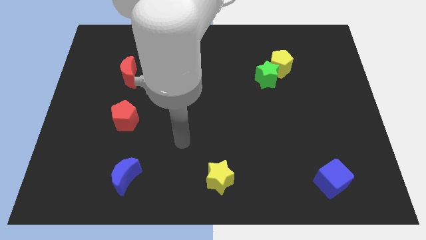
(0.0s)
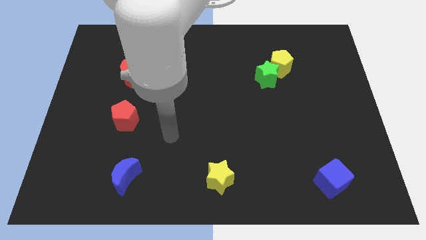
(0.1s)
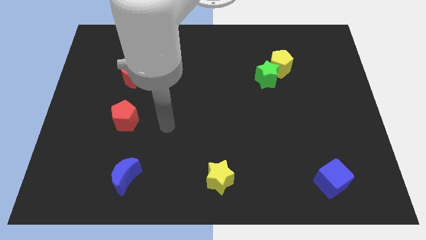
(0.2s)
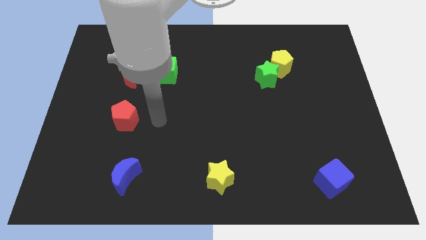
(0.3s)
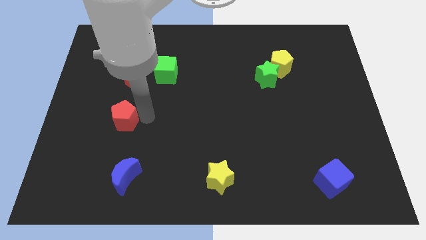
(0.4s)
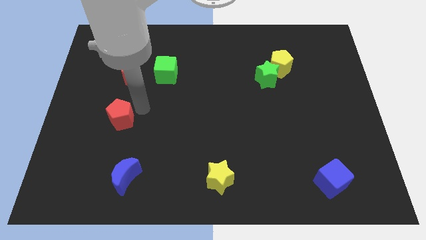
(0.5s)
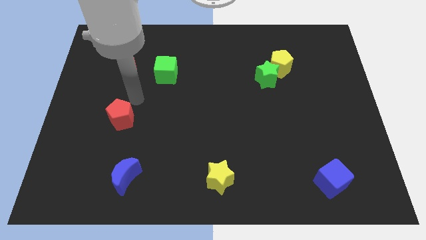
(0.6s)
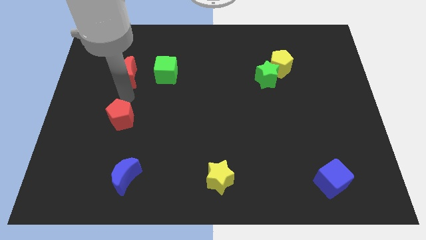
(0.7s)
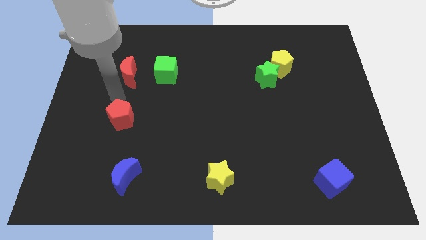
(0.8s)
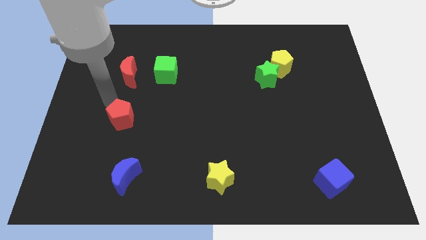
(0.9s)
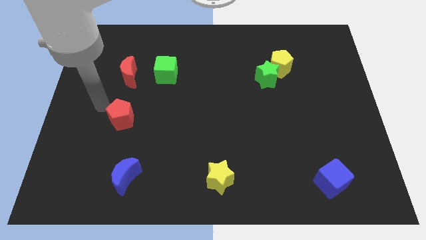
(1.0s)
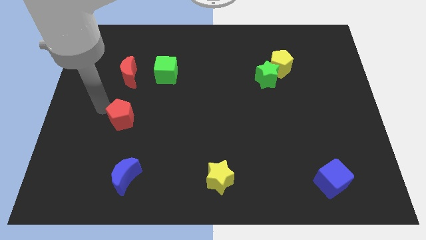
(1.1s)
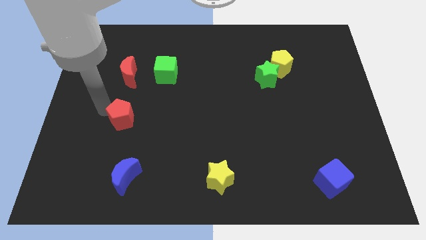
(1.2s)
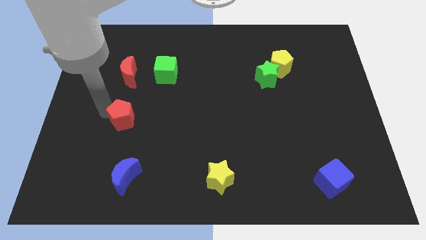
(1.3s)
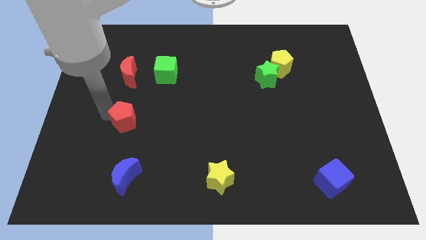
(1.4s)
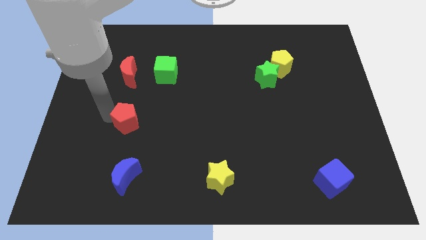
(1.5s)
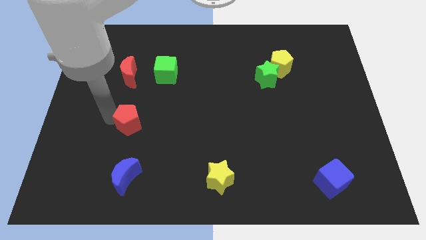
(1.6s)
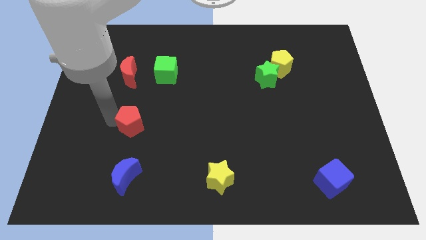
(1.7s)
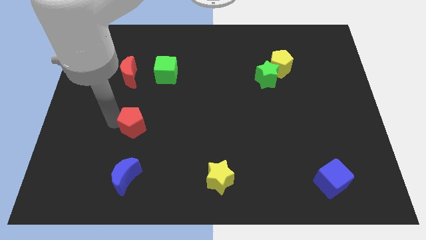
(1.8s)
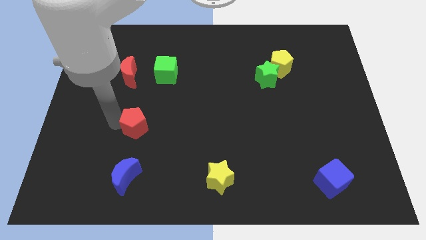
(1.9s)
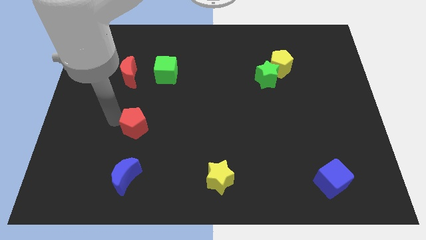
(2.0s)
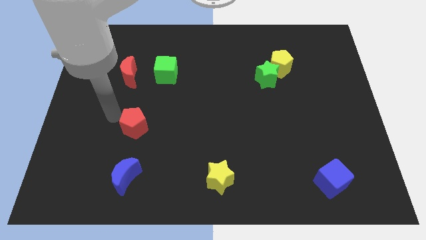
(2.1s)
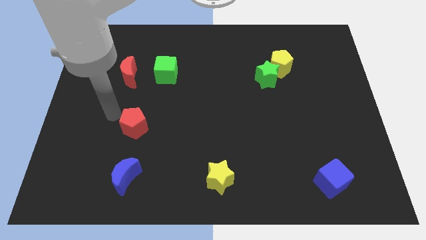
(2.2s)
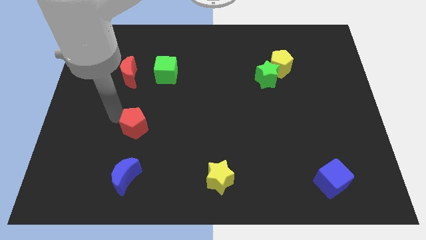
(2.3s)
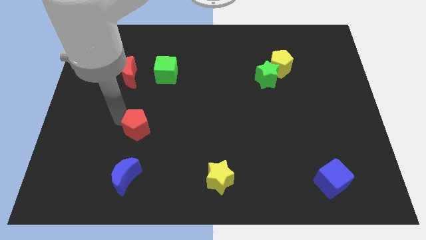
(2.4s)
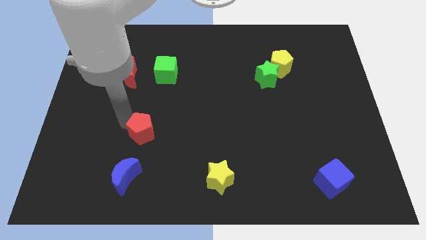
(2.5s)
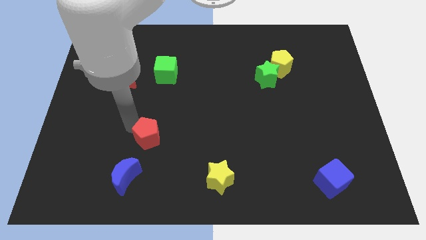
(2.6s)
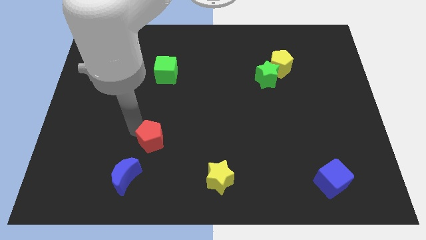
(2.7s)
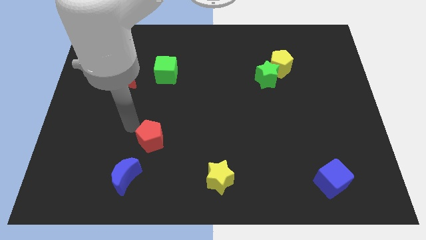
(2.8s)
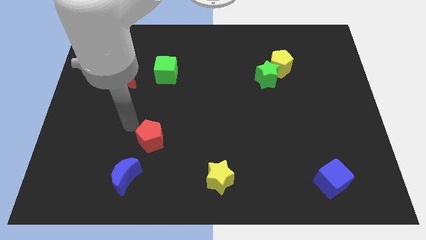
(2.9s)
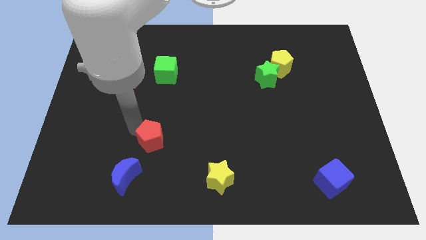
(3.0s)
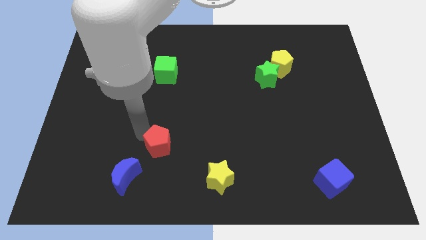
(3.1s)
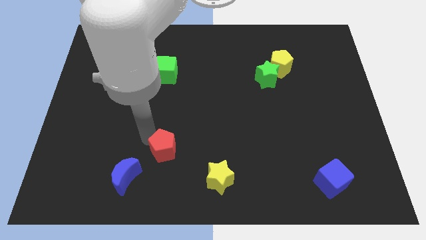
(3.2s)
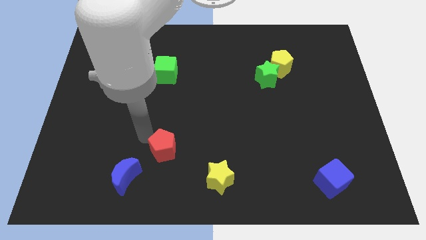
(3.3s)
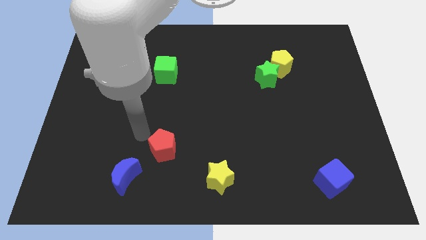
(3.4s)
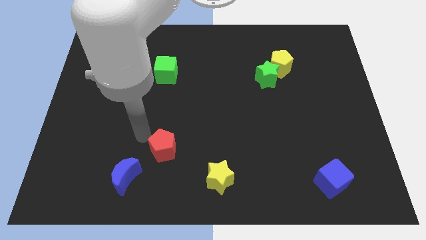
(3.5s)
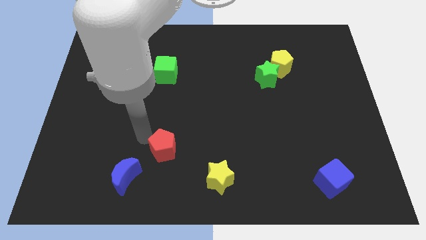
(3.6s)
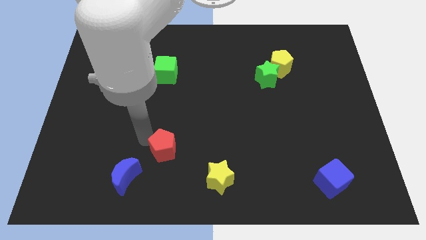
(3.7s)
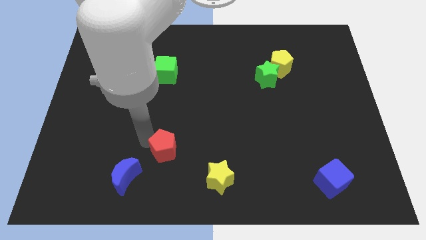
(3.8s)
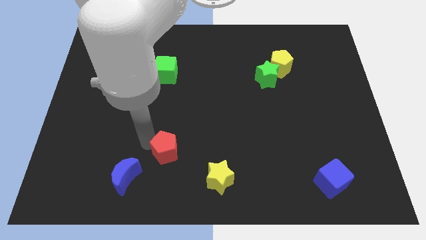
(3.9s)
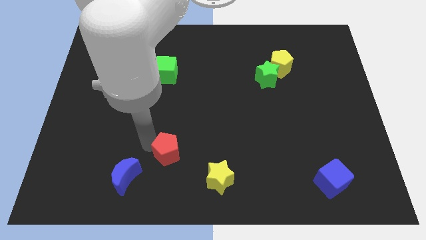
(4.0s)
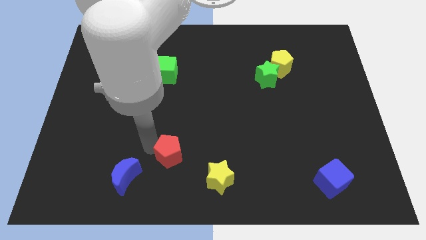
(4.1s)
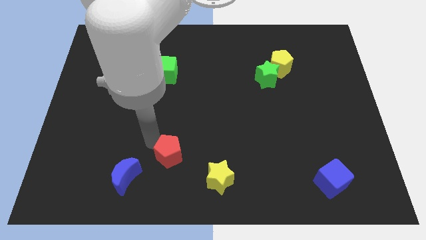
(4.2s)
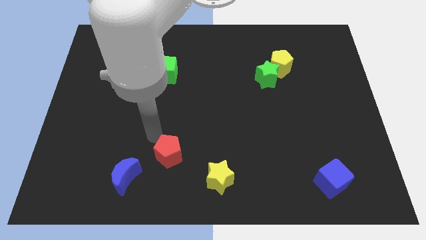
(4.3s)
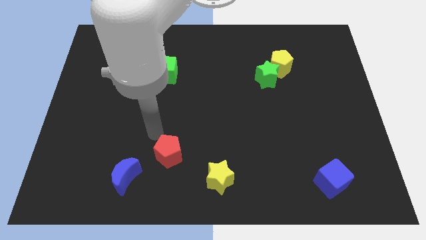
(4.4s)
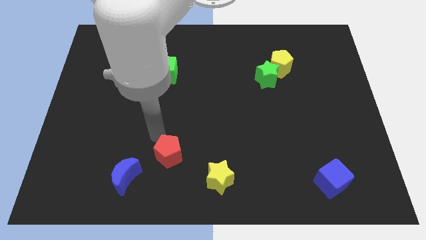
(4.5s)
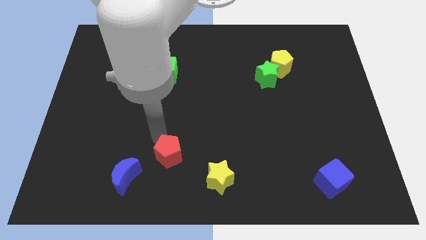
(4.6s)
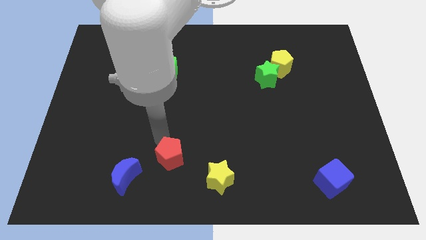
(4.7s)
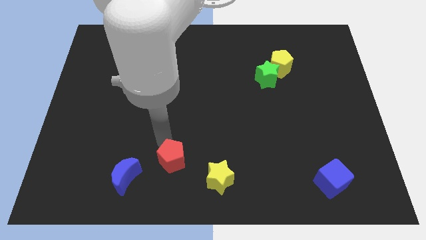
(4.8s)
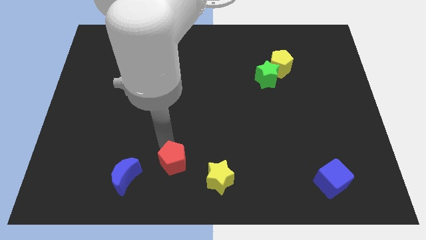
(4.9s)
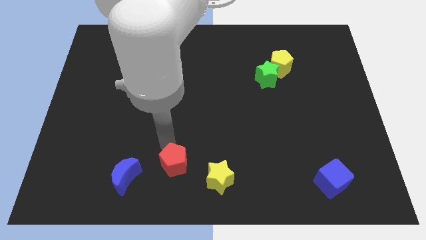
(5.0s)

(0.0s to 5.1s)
put the red pentagon to the bottom
